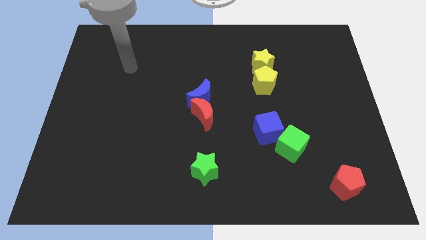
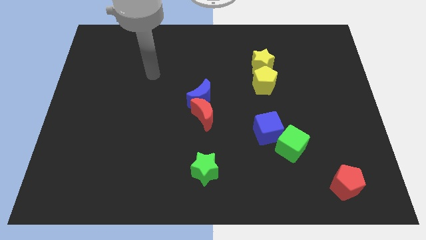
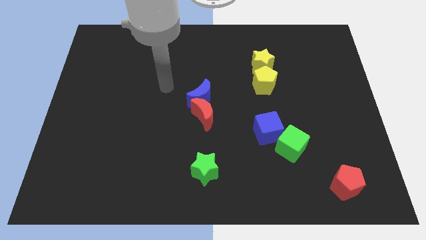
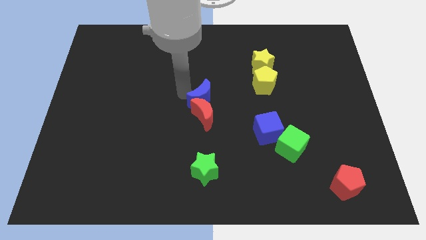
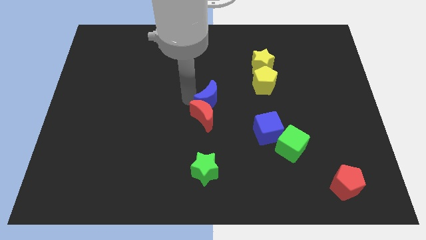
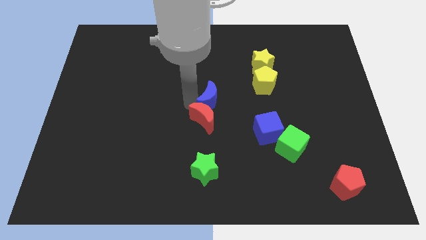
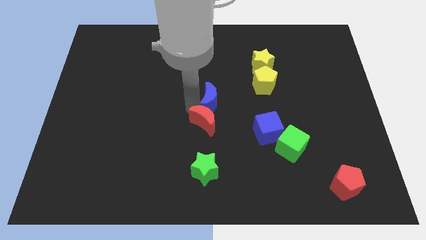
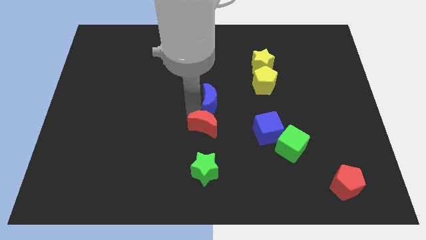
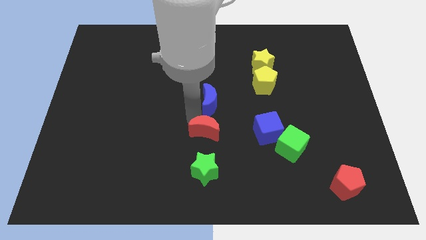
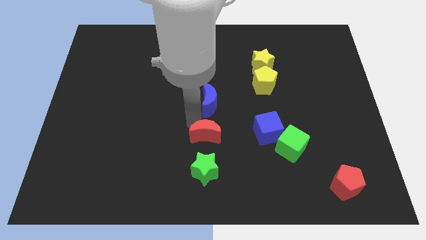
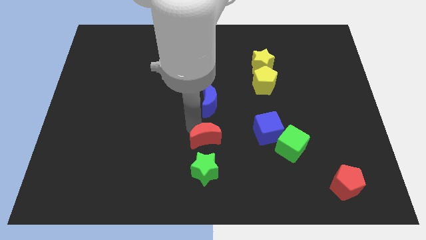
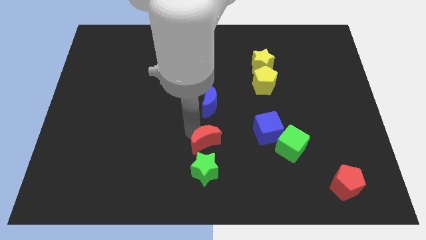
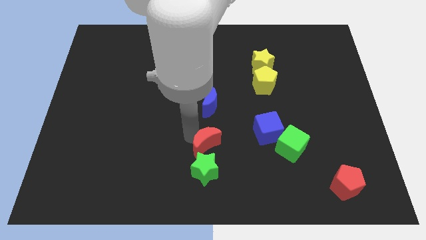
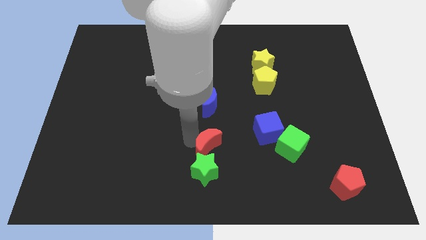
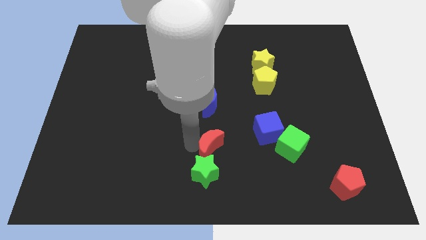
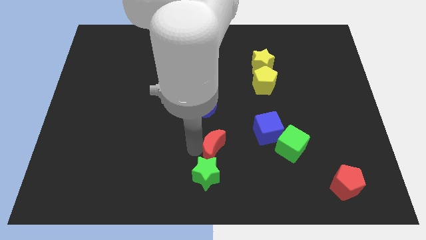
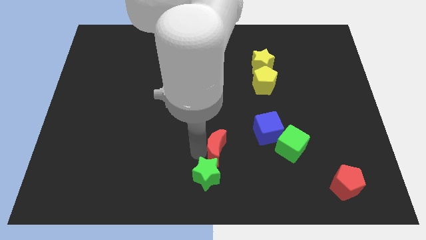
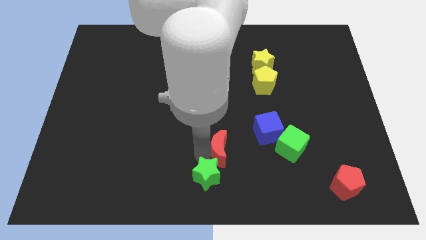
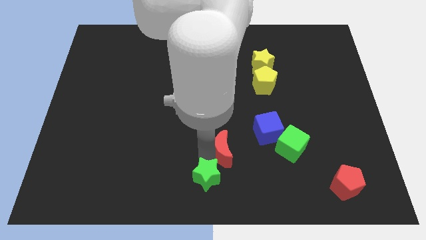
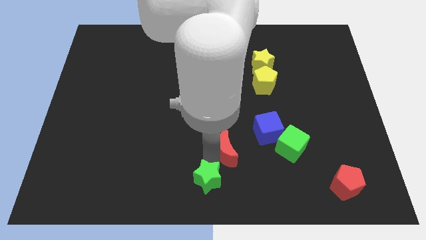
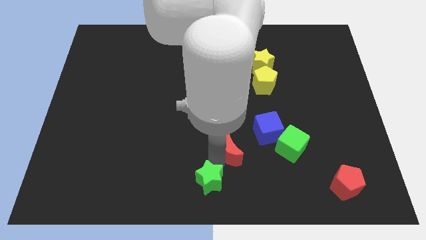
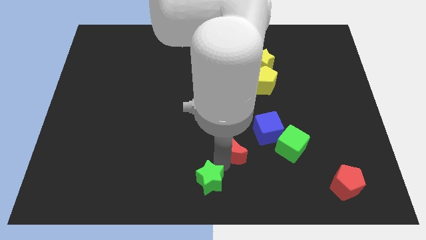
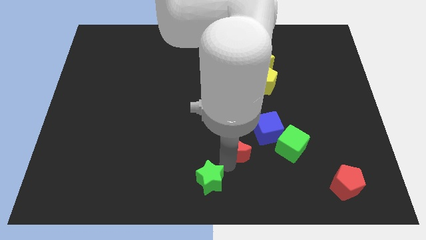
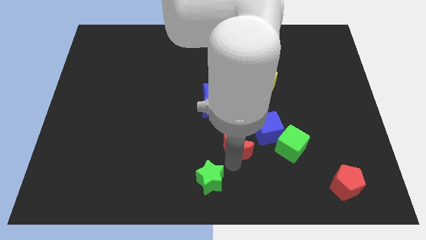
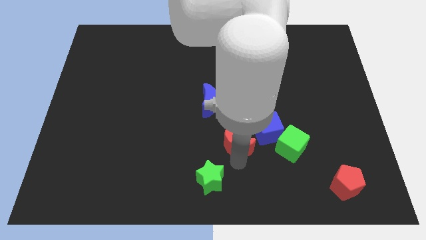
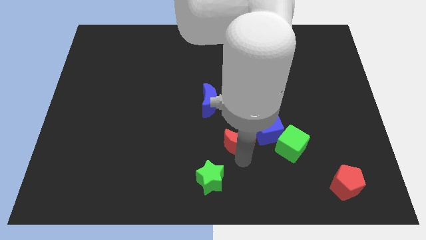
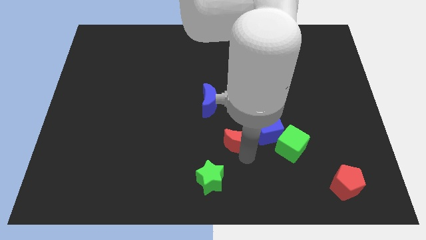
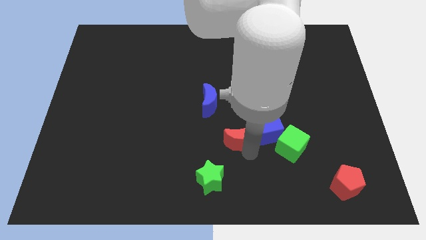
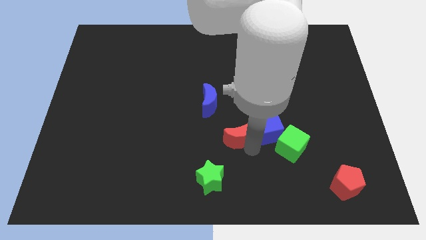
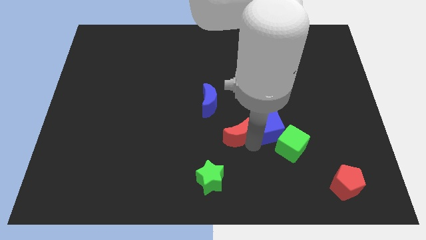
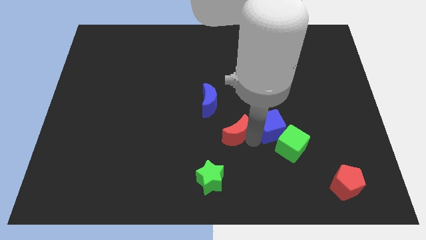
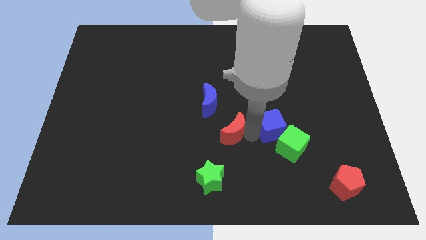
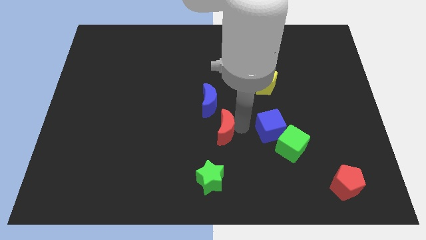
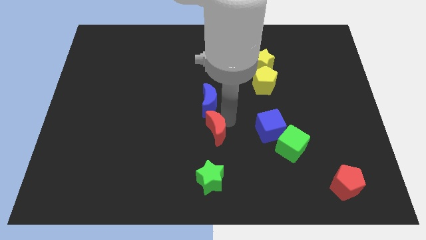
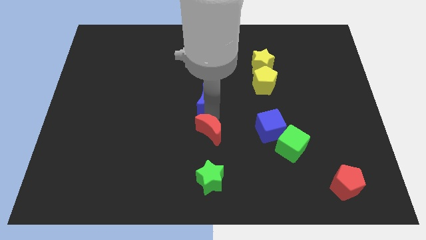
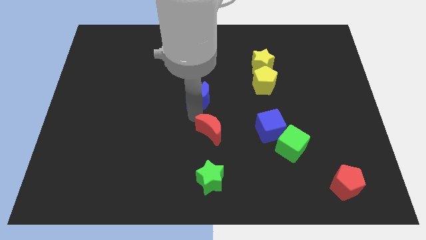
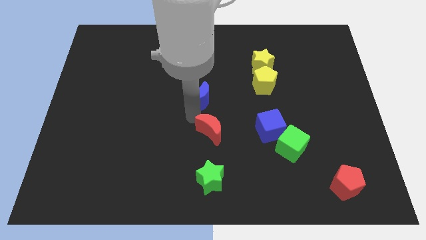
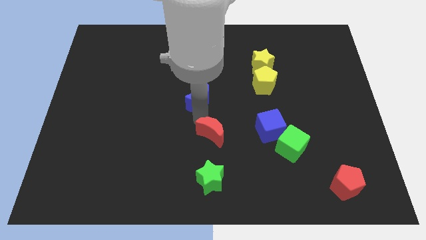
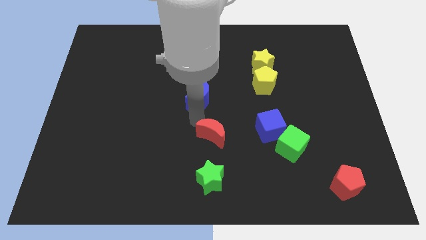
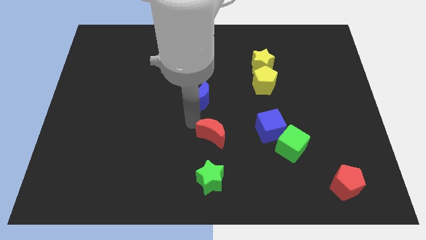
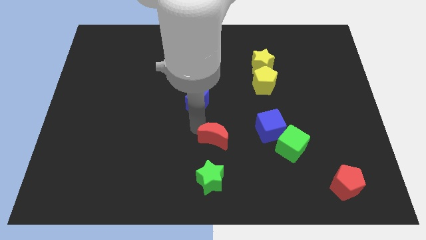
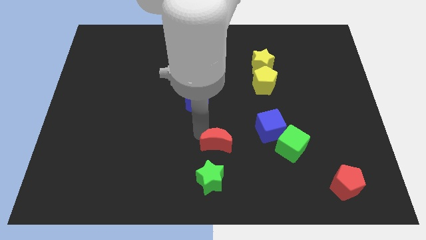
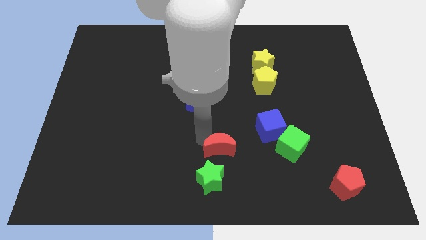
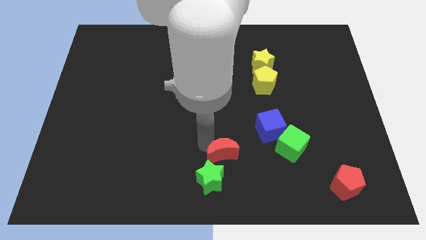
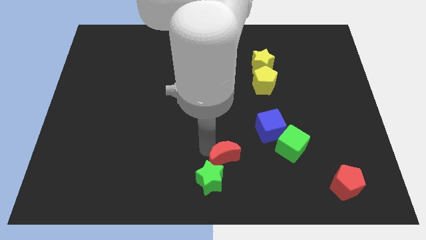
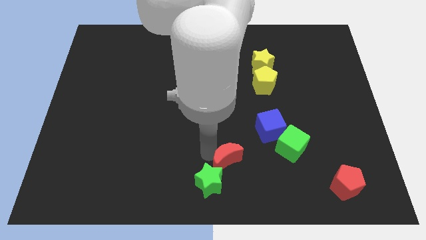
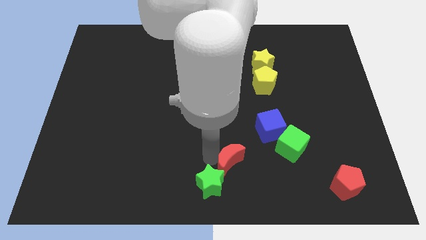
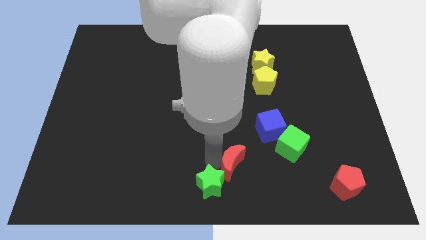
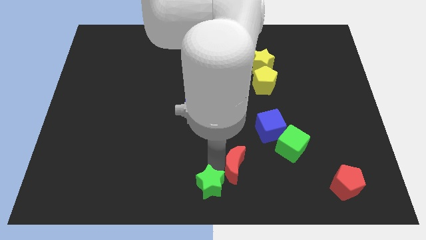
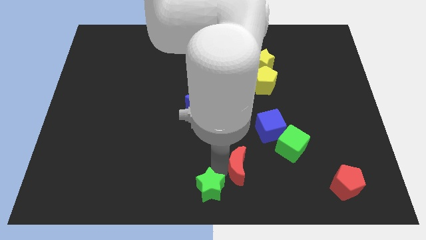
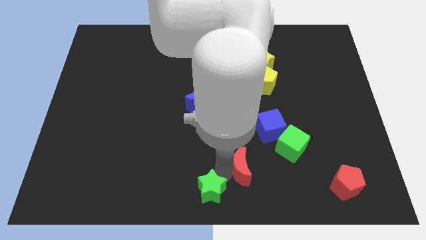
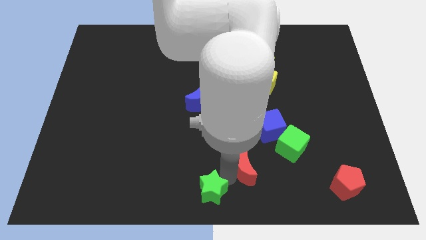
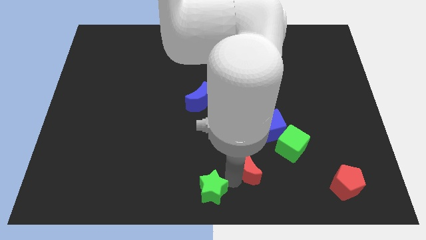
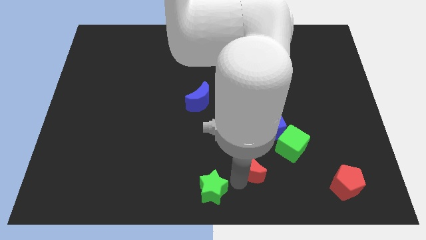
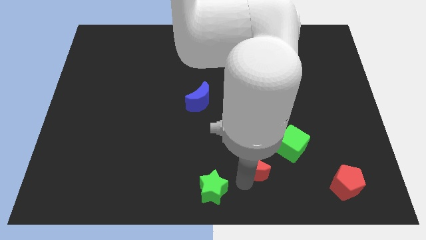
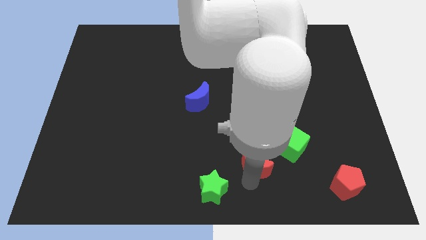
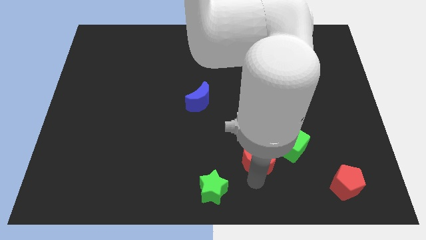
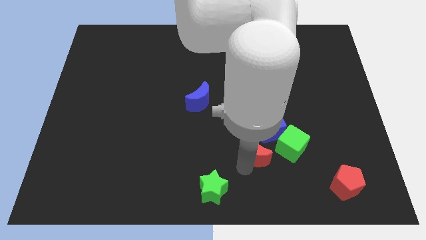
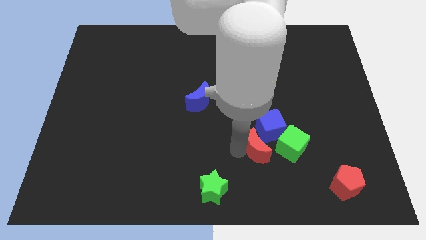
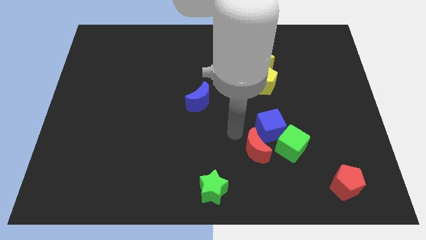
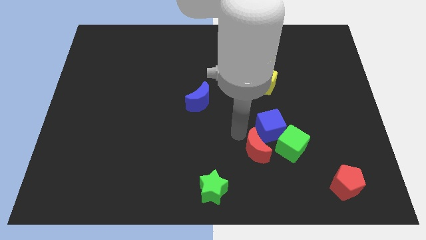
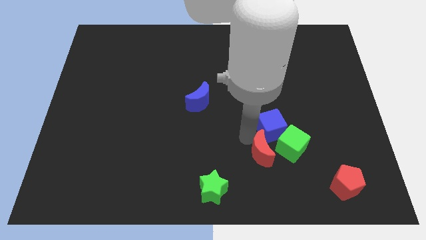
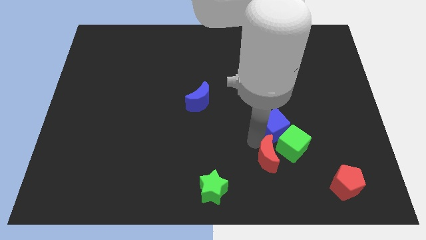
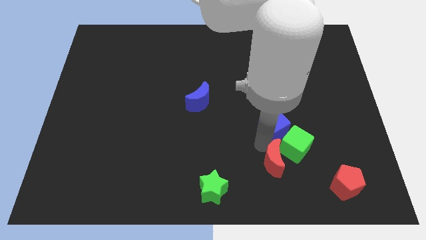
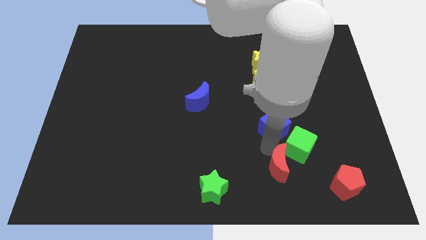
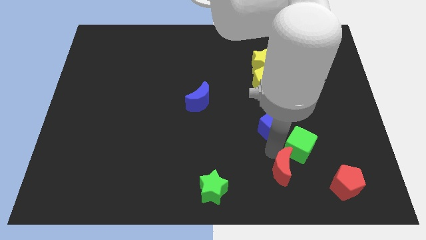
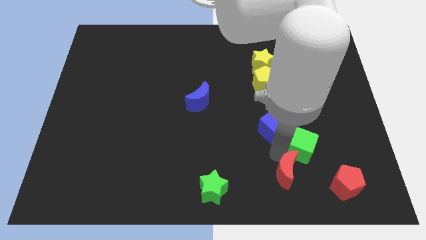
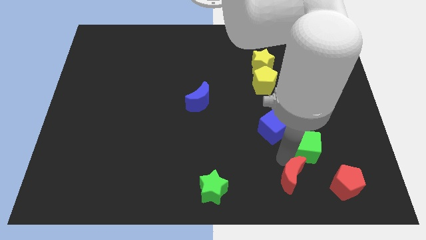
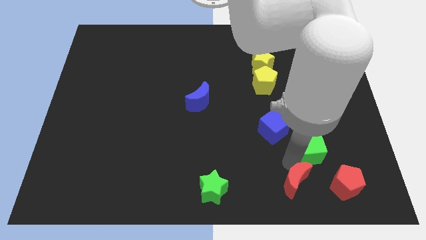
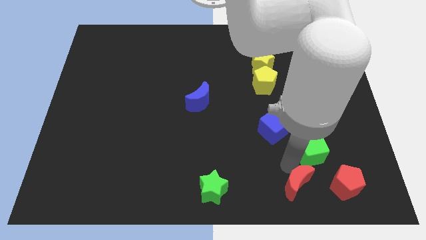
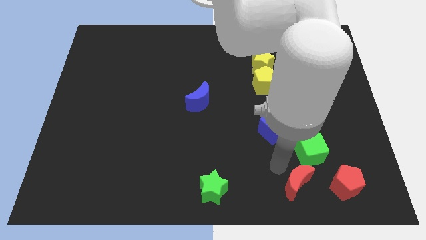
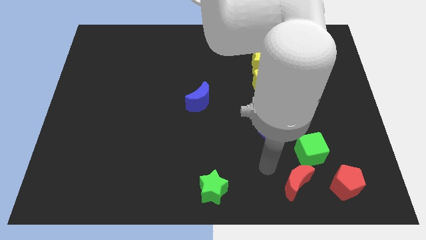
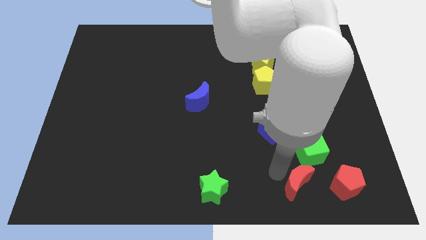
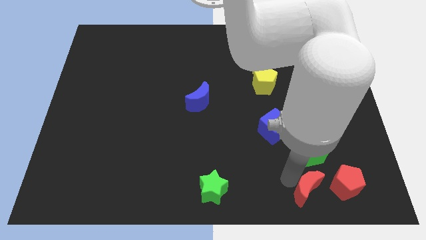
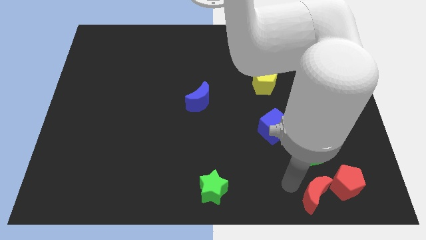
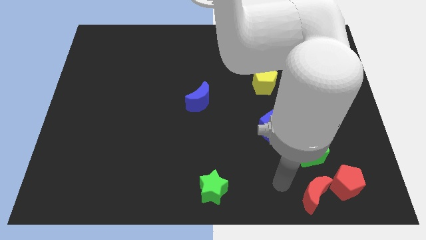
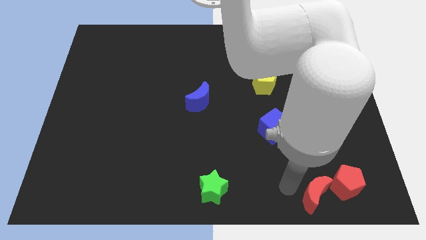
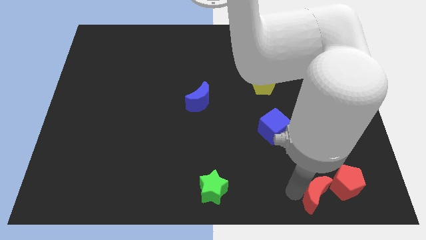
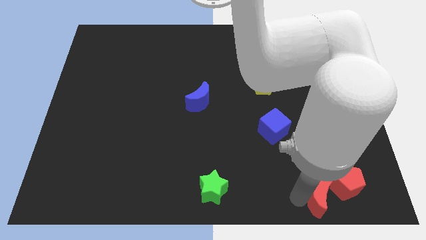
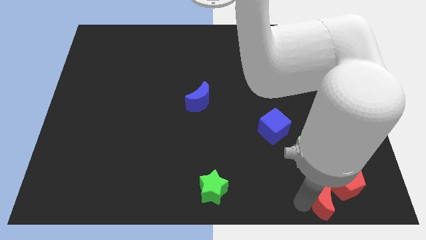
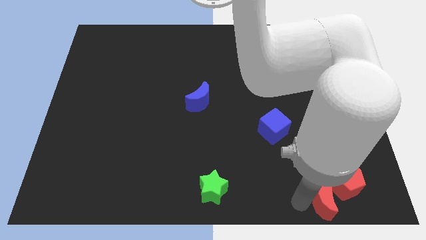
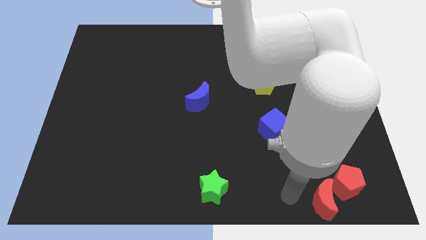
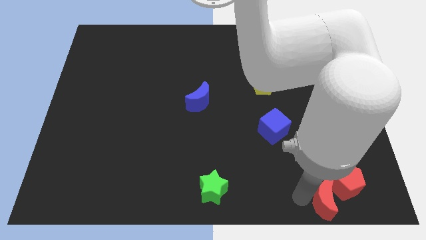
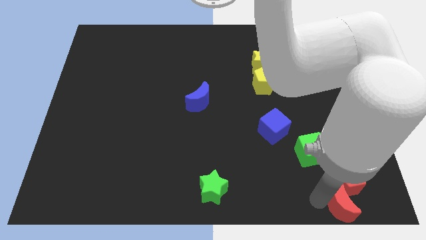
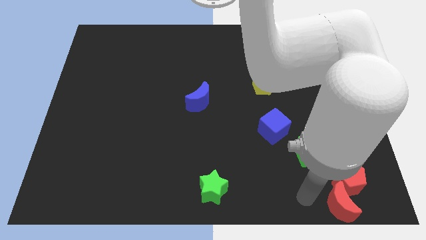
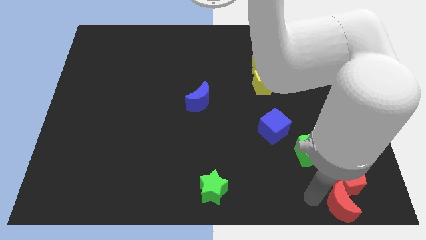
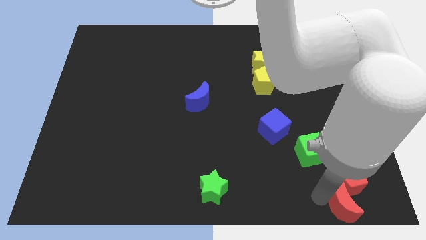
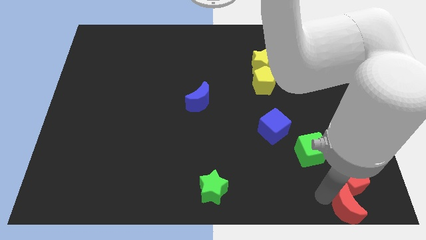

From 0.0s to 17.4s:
put the red moon to the bottom right
